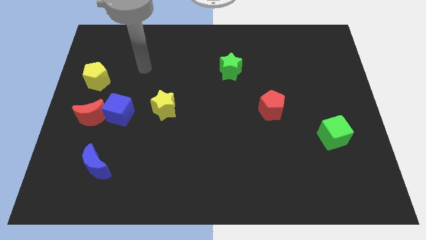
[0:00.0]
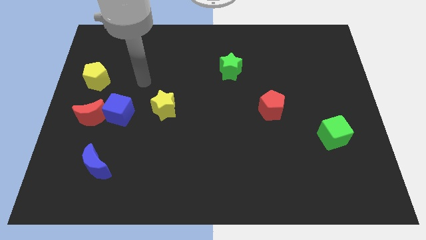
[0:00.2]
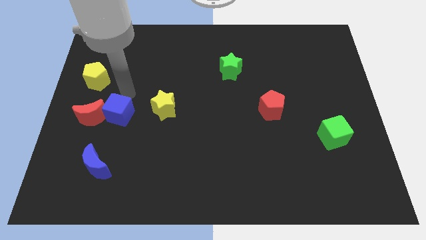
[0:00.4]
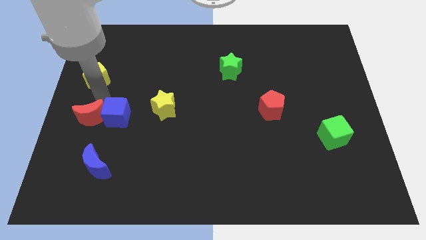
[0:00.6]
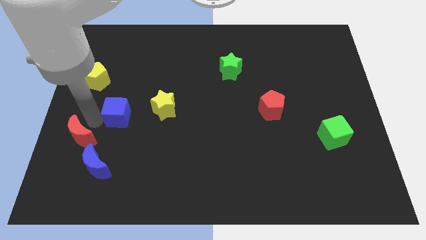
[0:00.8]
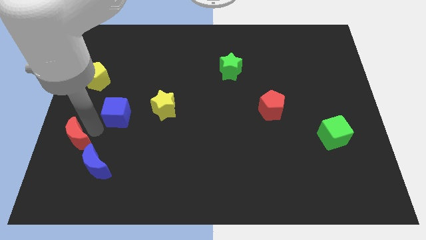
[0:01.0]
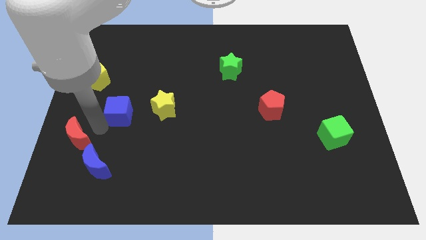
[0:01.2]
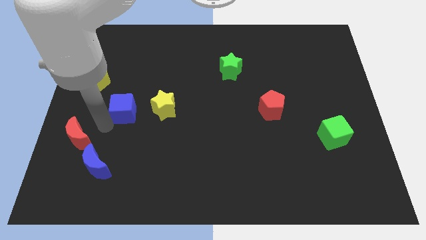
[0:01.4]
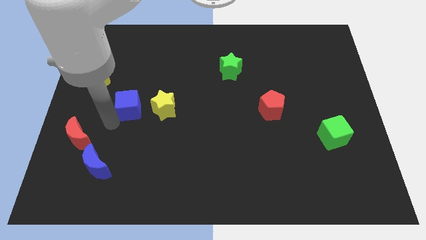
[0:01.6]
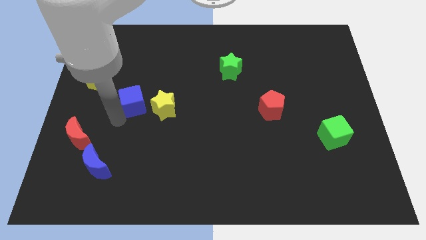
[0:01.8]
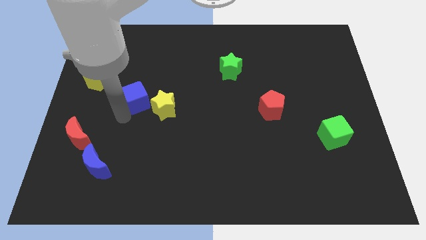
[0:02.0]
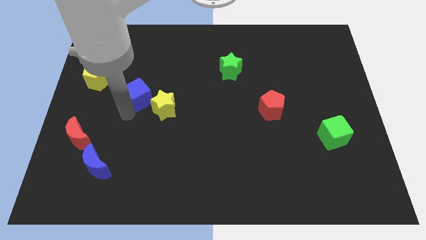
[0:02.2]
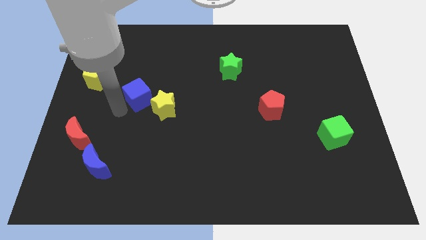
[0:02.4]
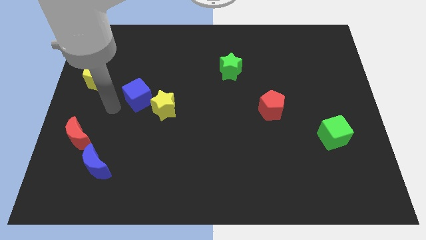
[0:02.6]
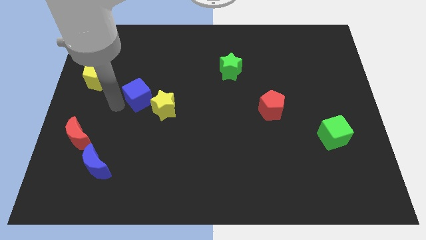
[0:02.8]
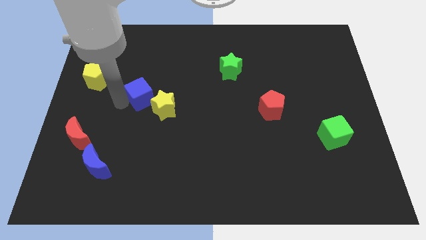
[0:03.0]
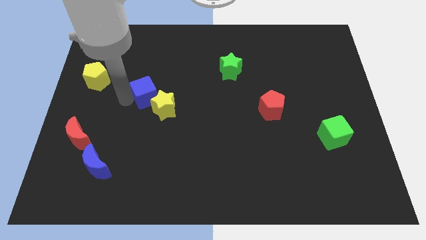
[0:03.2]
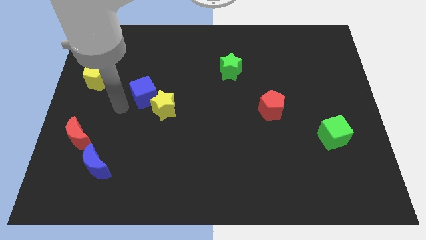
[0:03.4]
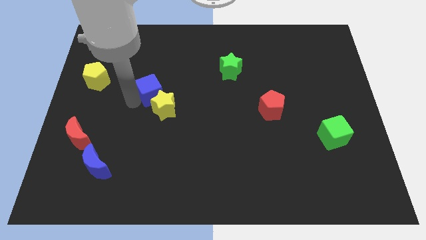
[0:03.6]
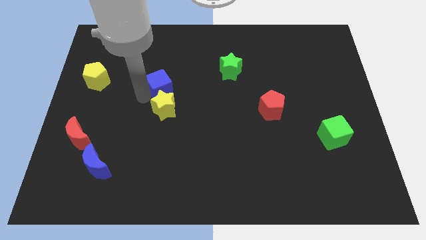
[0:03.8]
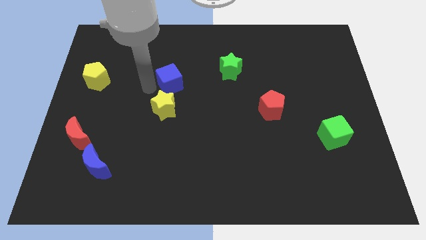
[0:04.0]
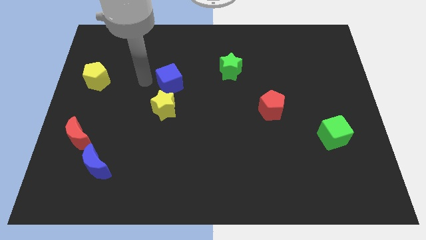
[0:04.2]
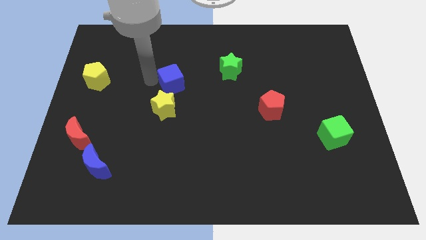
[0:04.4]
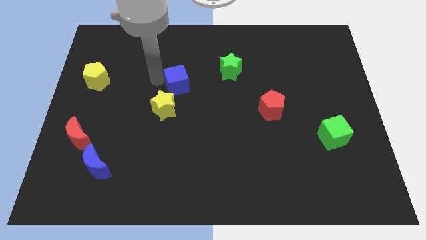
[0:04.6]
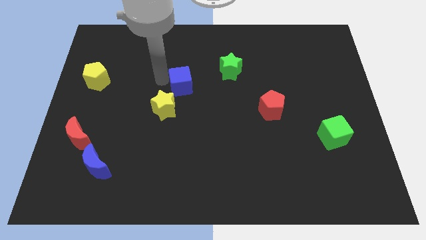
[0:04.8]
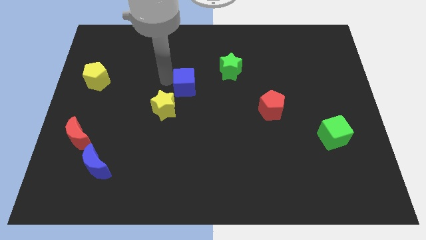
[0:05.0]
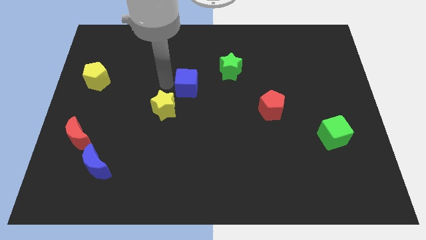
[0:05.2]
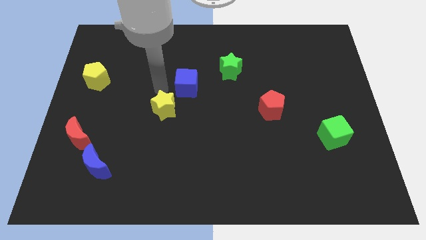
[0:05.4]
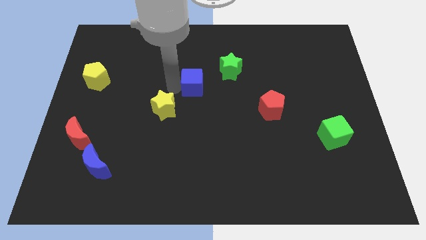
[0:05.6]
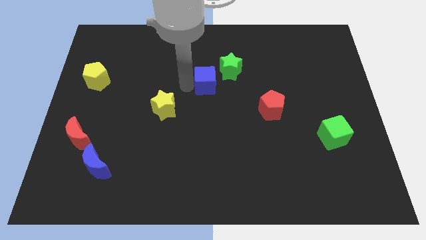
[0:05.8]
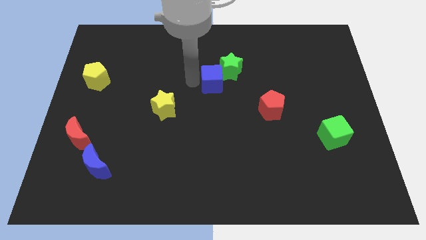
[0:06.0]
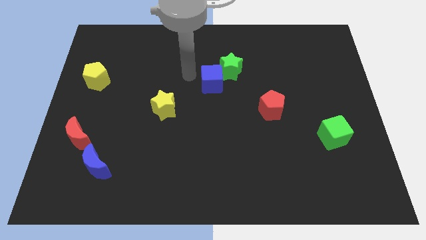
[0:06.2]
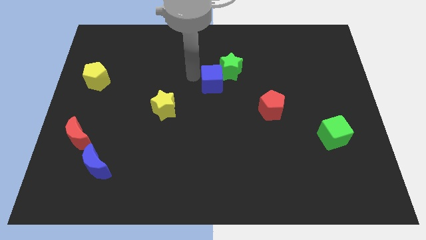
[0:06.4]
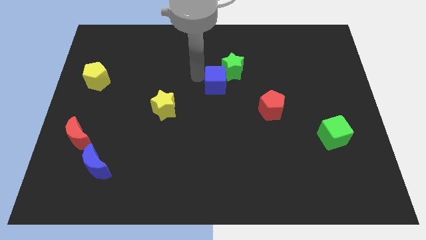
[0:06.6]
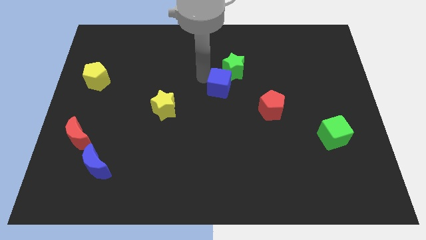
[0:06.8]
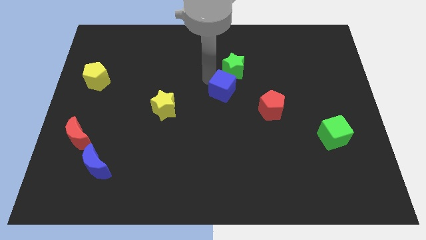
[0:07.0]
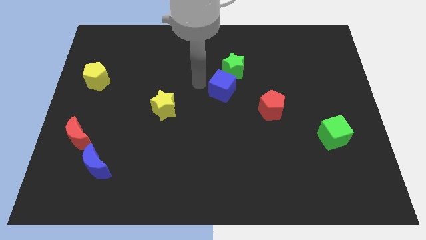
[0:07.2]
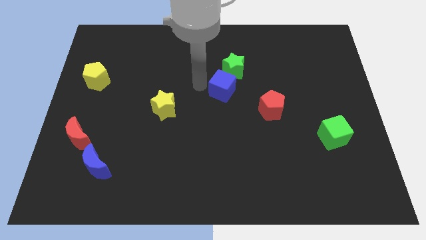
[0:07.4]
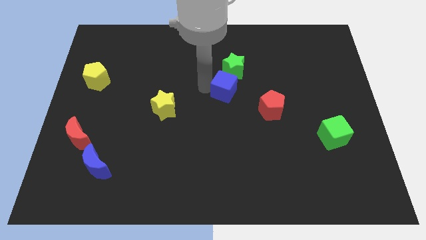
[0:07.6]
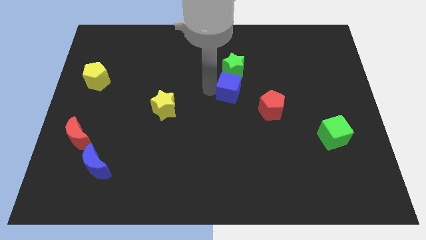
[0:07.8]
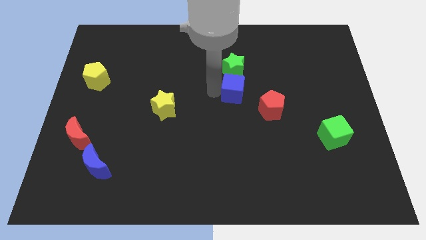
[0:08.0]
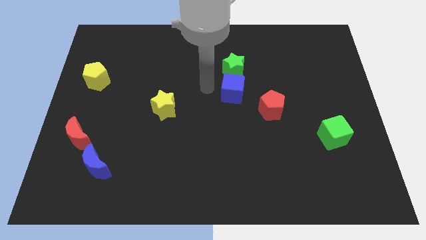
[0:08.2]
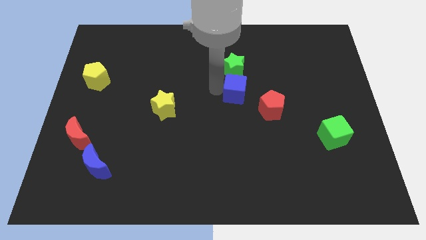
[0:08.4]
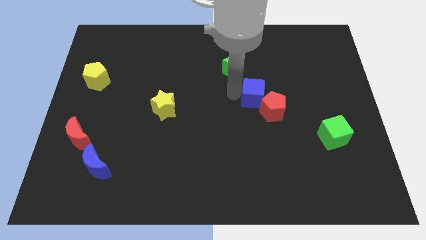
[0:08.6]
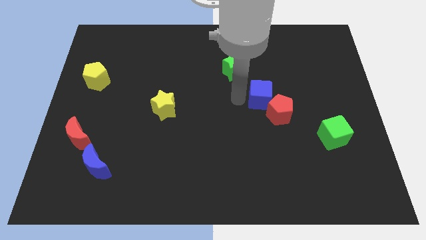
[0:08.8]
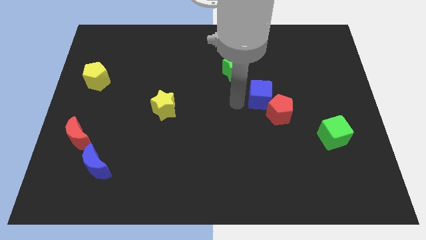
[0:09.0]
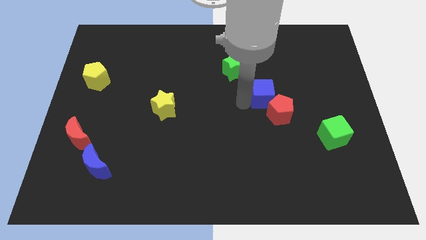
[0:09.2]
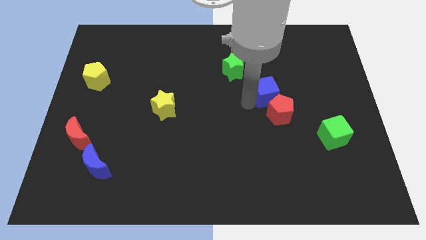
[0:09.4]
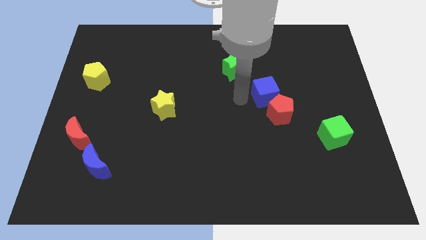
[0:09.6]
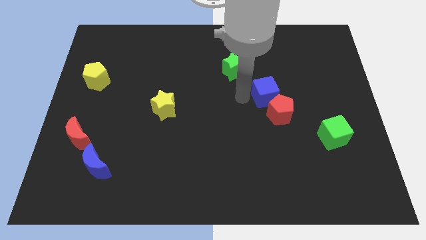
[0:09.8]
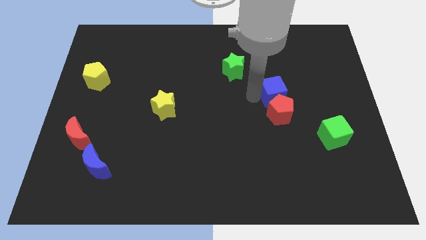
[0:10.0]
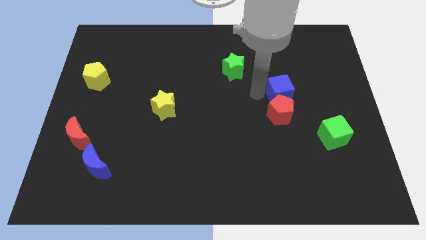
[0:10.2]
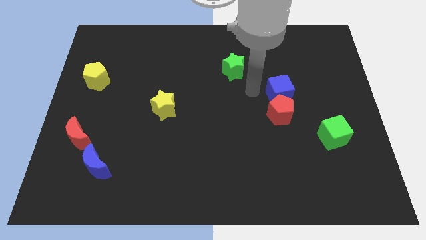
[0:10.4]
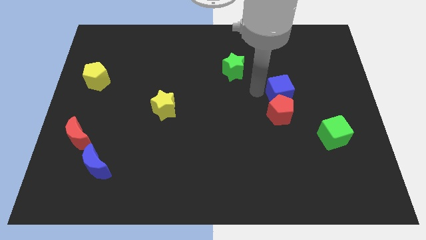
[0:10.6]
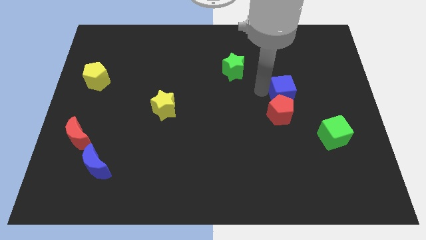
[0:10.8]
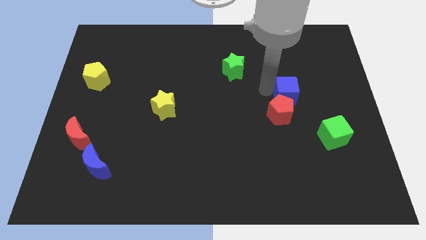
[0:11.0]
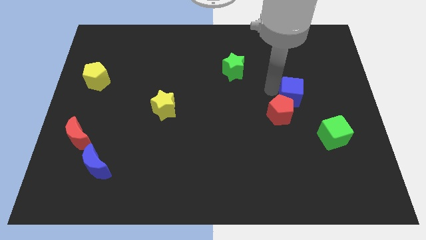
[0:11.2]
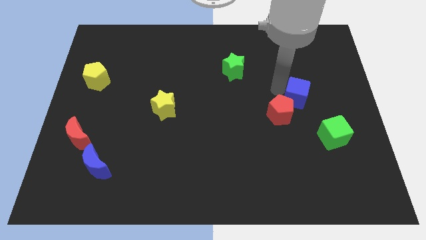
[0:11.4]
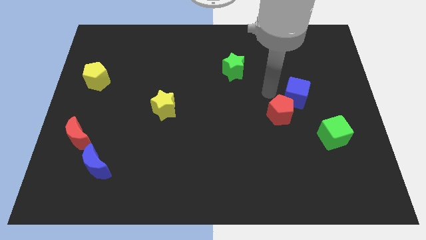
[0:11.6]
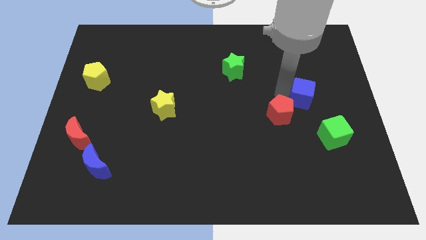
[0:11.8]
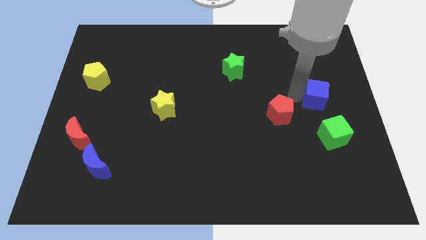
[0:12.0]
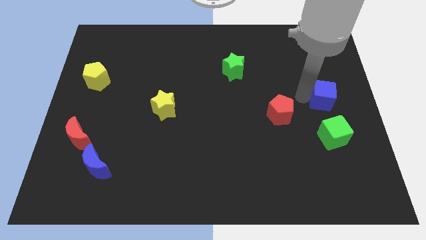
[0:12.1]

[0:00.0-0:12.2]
push the blue cube to the center right
